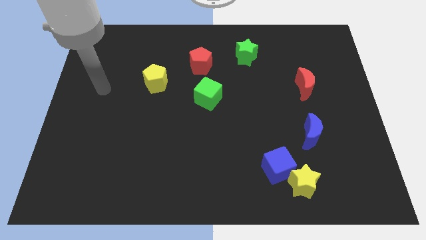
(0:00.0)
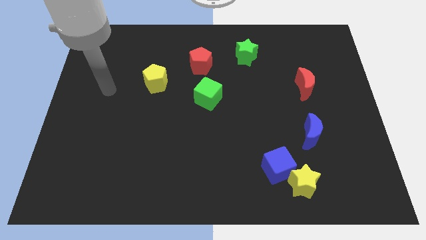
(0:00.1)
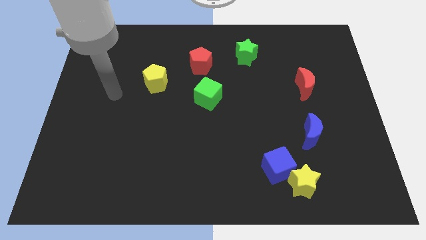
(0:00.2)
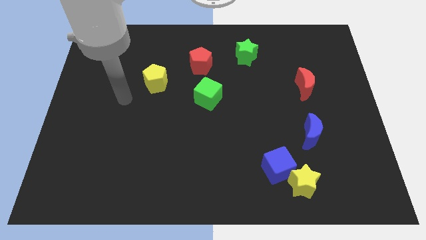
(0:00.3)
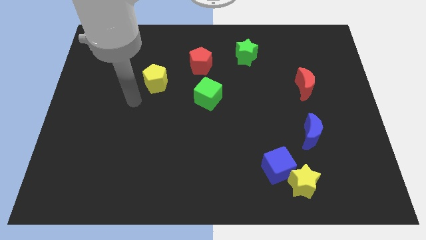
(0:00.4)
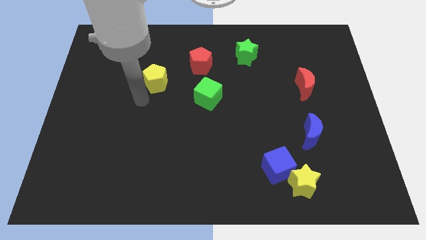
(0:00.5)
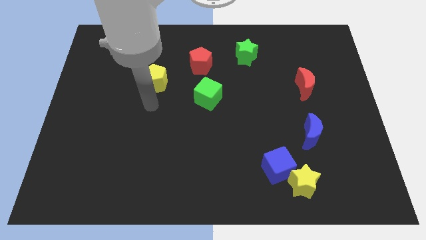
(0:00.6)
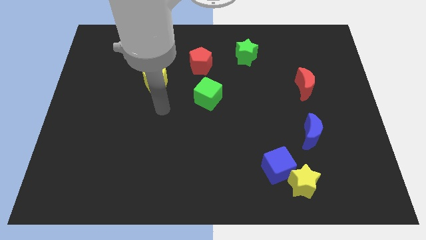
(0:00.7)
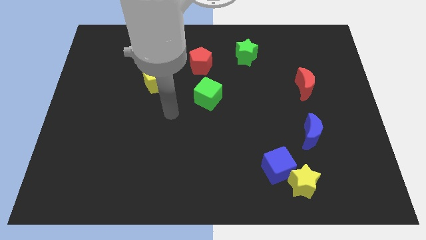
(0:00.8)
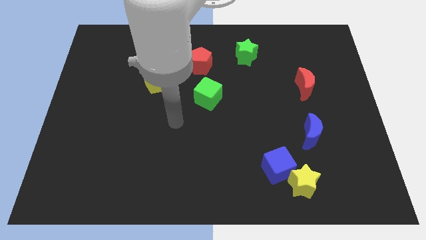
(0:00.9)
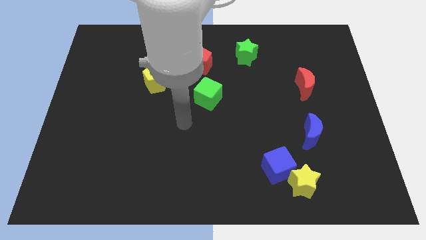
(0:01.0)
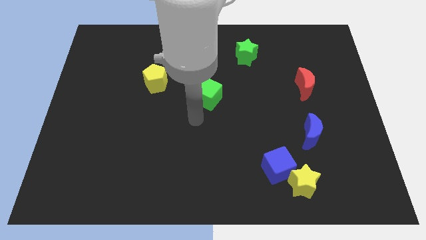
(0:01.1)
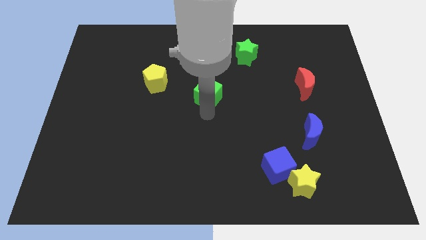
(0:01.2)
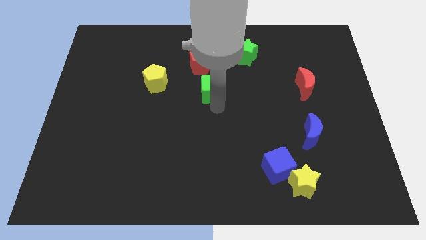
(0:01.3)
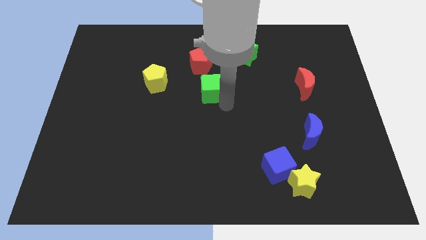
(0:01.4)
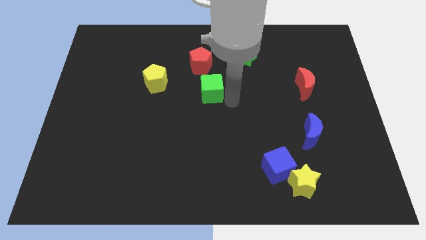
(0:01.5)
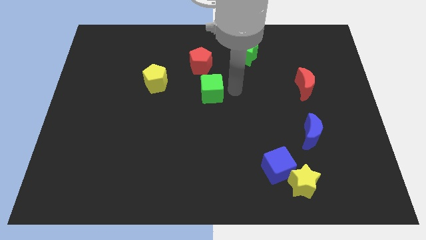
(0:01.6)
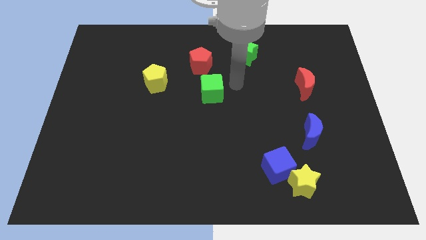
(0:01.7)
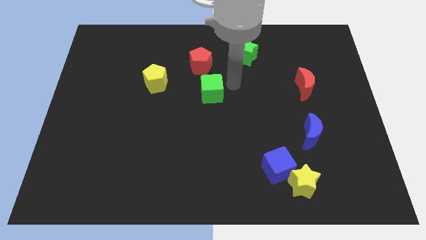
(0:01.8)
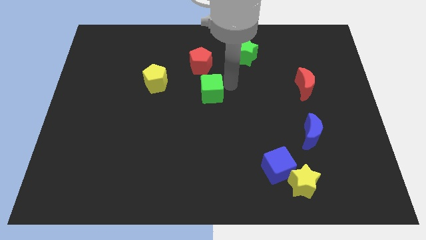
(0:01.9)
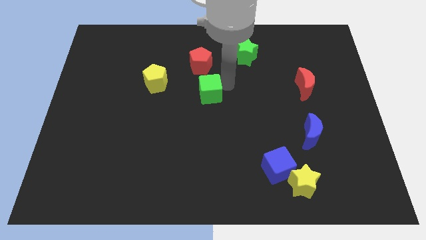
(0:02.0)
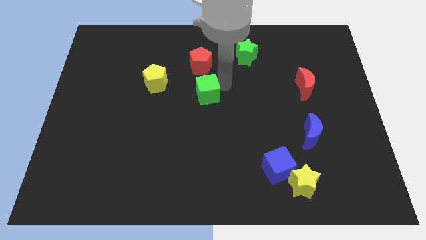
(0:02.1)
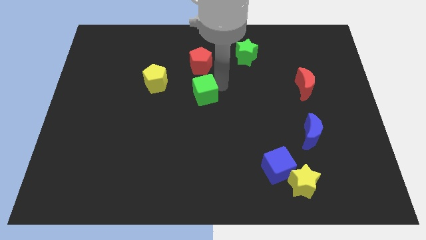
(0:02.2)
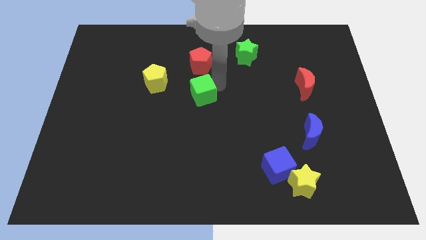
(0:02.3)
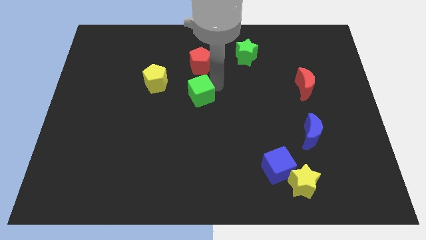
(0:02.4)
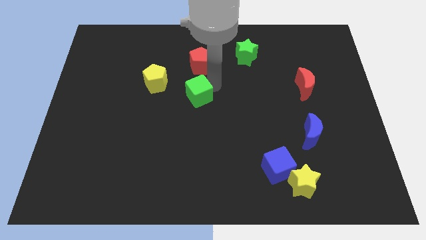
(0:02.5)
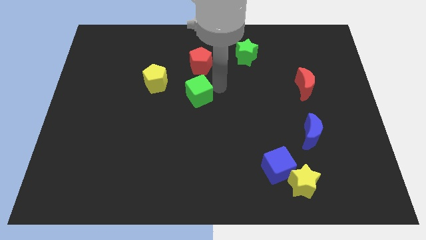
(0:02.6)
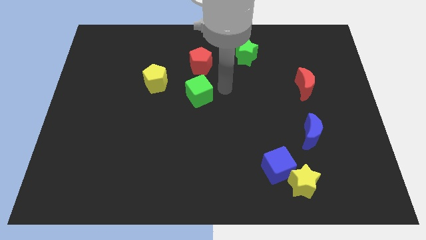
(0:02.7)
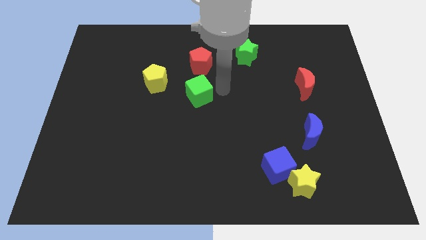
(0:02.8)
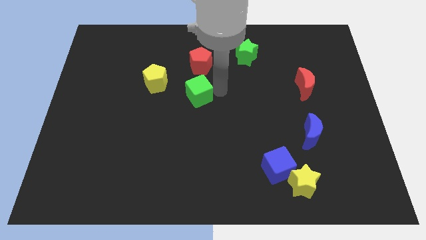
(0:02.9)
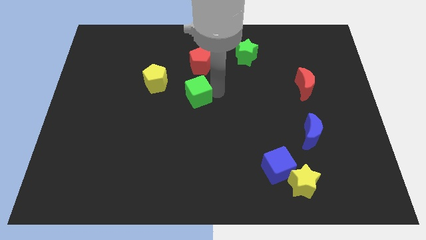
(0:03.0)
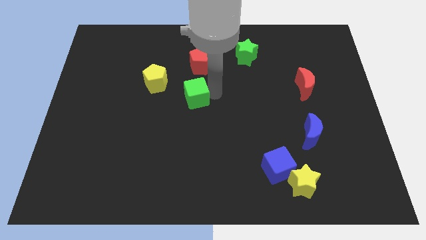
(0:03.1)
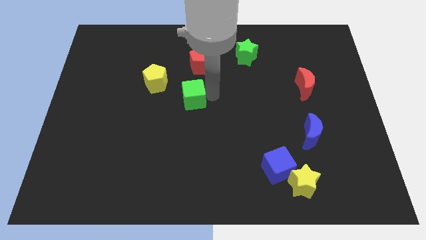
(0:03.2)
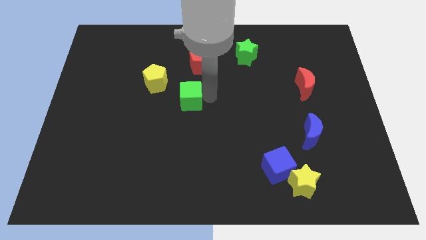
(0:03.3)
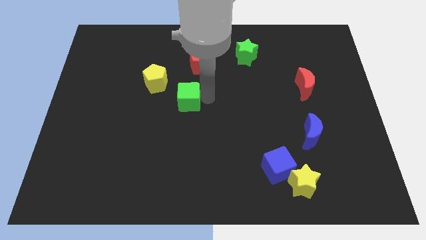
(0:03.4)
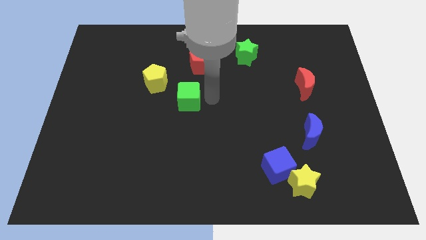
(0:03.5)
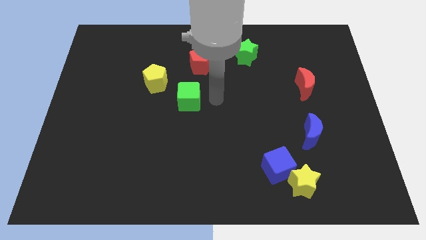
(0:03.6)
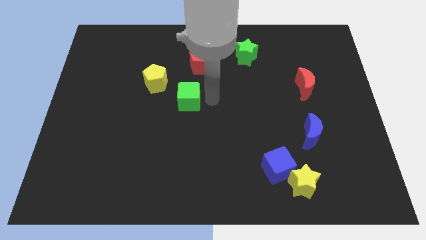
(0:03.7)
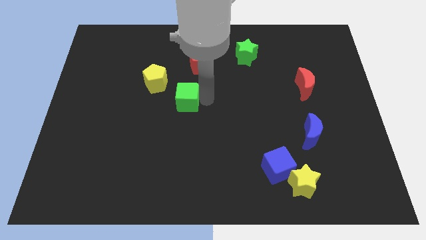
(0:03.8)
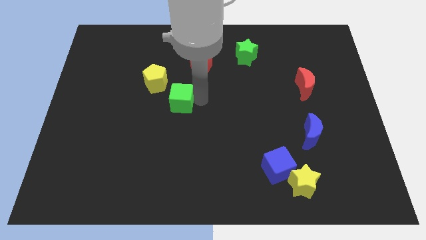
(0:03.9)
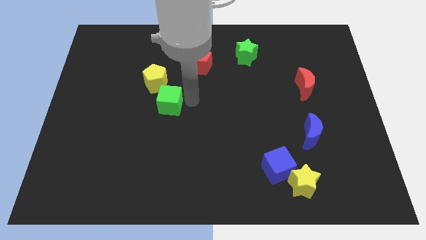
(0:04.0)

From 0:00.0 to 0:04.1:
slightly slide the green cube to the left

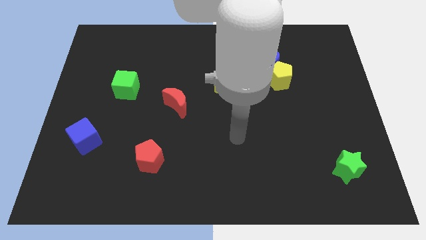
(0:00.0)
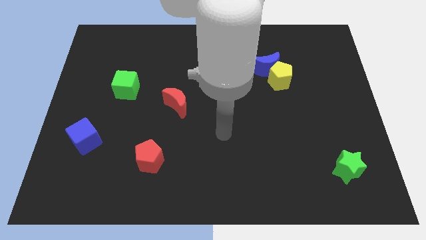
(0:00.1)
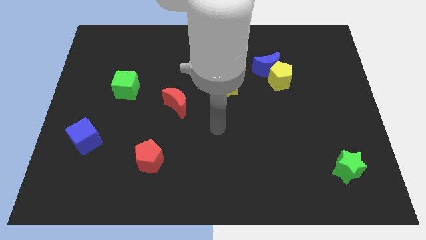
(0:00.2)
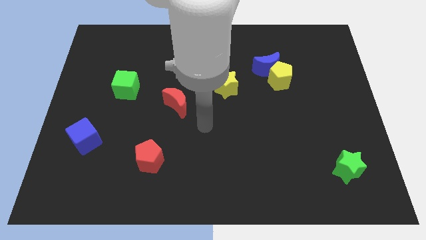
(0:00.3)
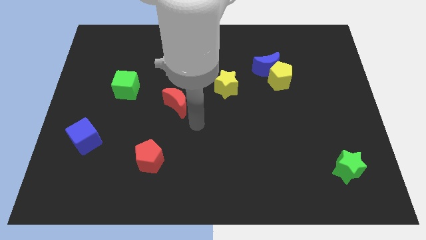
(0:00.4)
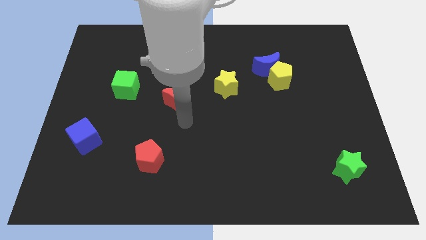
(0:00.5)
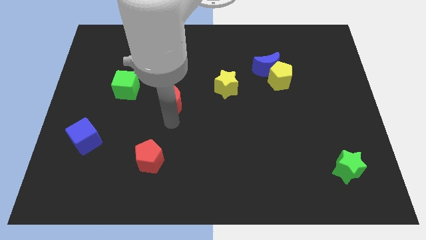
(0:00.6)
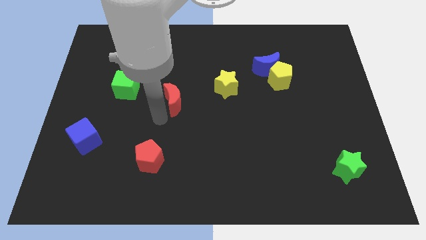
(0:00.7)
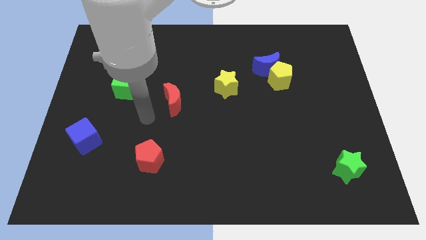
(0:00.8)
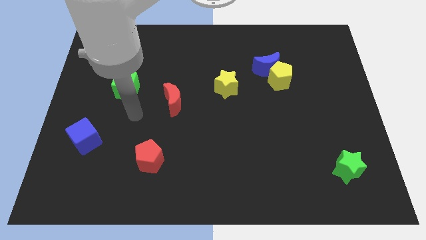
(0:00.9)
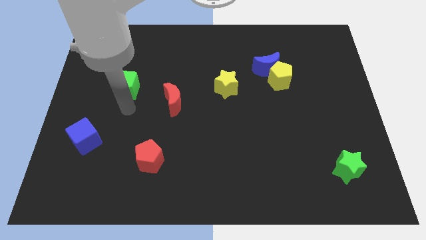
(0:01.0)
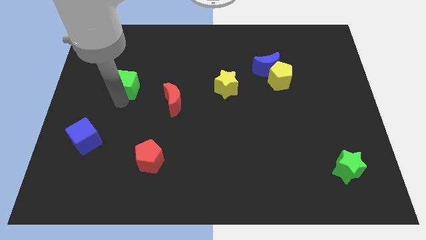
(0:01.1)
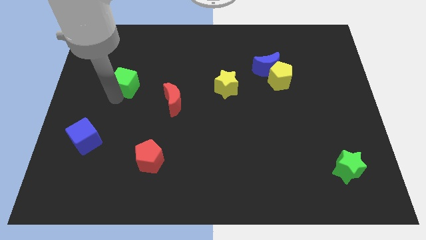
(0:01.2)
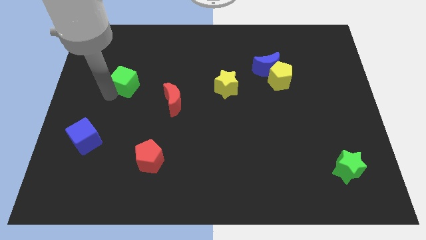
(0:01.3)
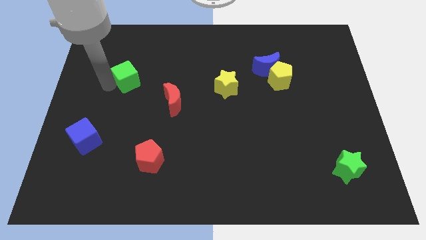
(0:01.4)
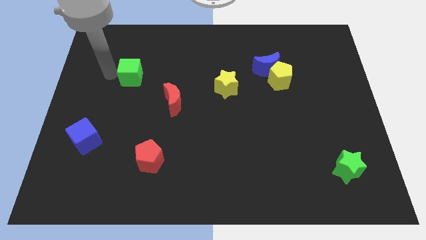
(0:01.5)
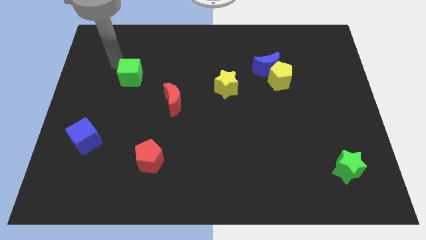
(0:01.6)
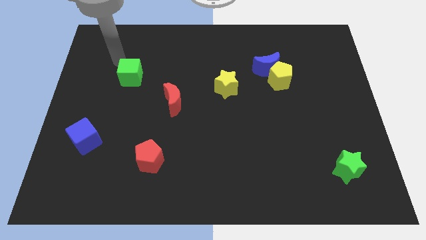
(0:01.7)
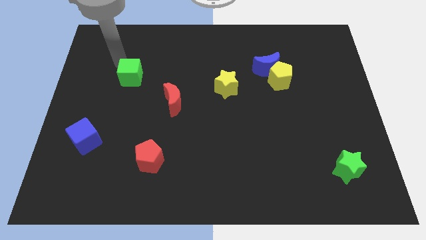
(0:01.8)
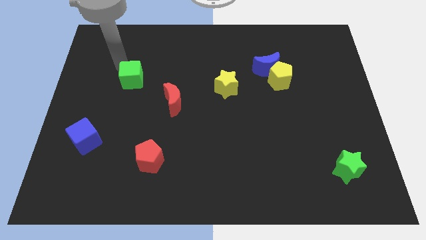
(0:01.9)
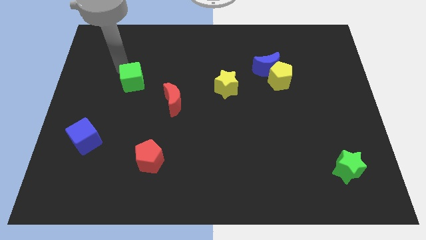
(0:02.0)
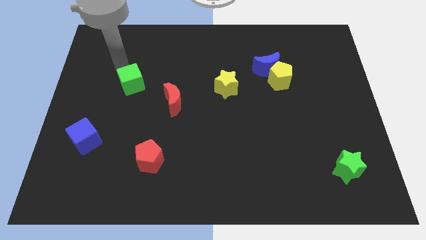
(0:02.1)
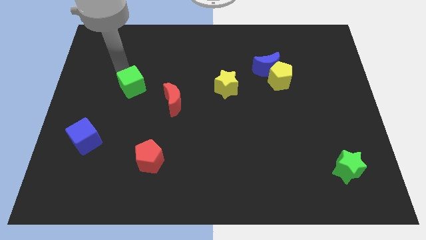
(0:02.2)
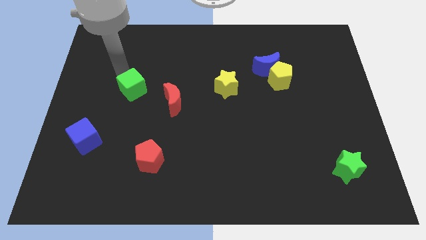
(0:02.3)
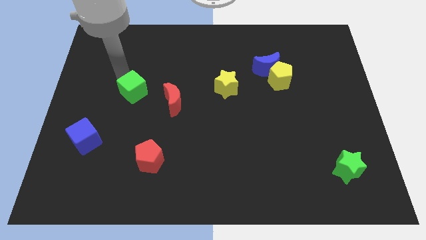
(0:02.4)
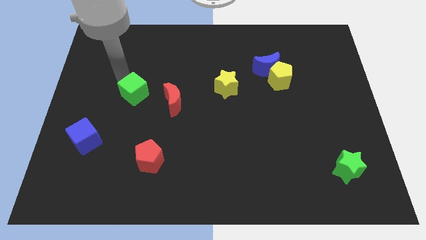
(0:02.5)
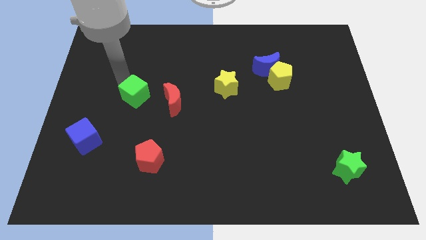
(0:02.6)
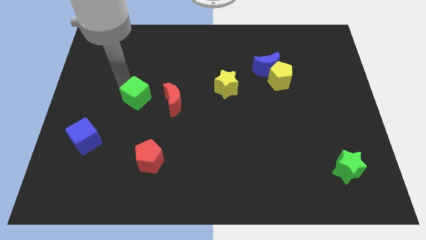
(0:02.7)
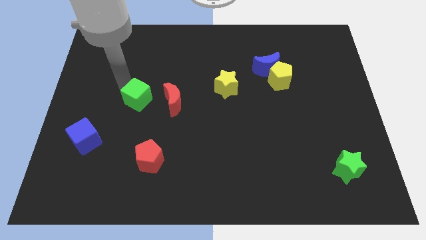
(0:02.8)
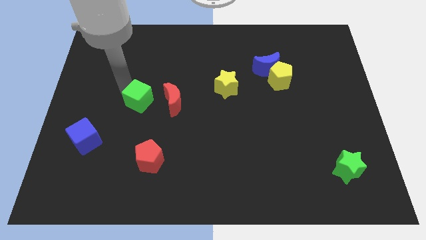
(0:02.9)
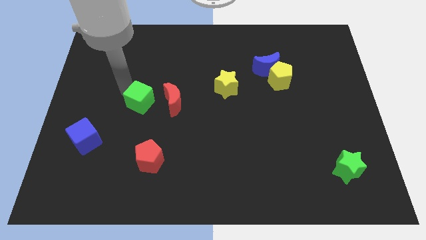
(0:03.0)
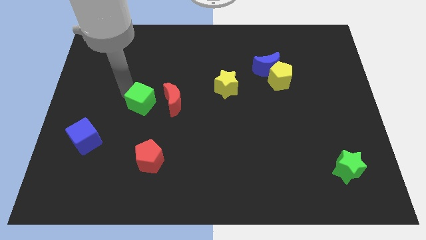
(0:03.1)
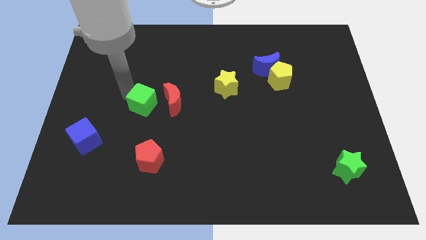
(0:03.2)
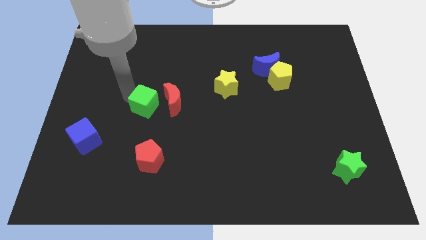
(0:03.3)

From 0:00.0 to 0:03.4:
slide the green cube a bit diagonally down and to the right

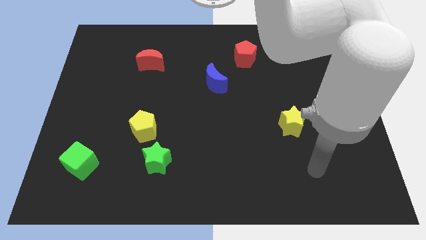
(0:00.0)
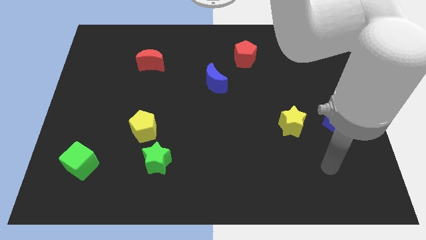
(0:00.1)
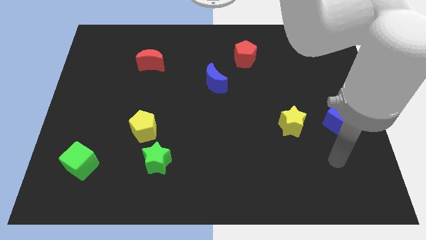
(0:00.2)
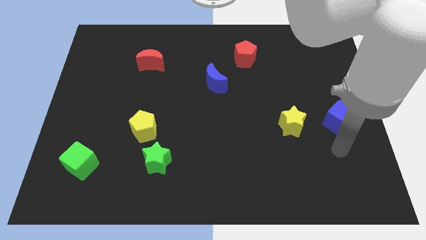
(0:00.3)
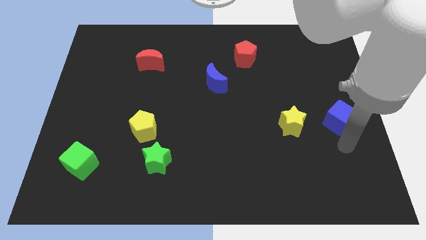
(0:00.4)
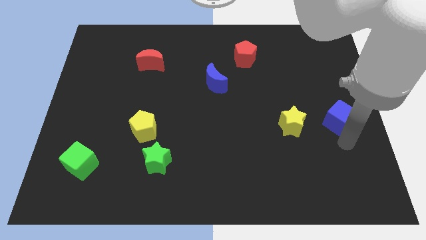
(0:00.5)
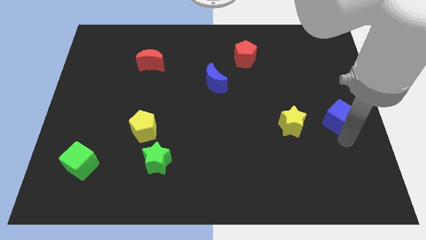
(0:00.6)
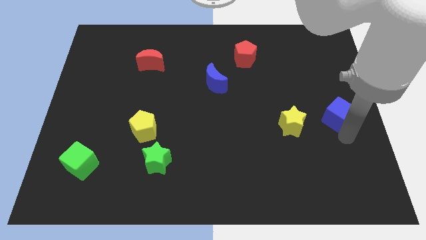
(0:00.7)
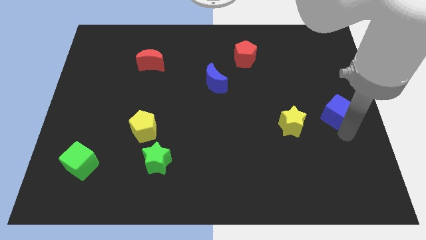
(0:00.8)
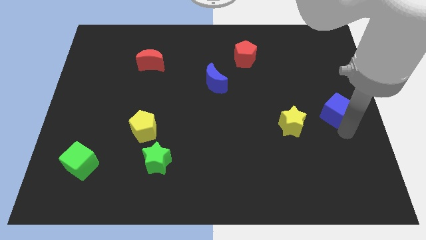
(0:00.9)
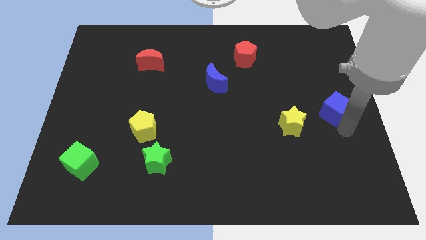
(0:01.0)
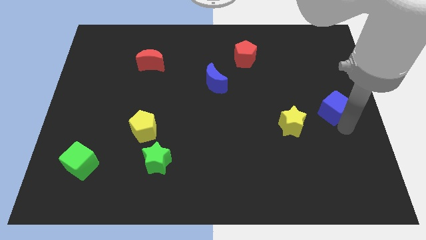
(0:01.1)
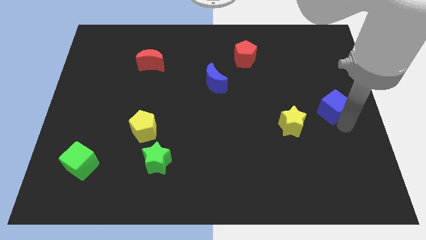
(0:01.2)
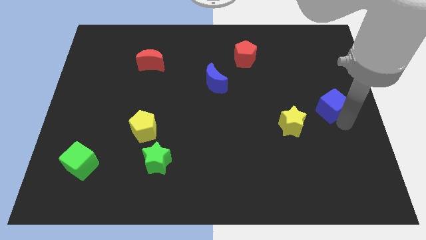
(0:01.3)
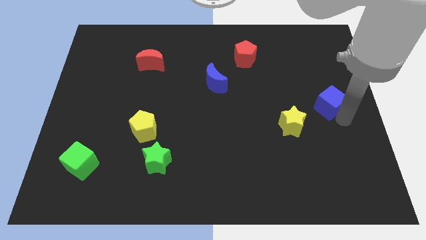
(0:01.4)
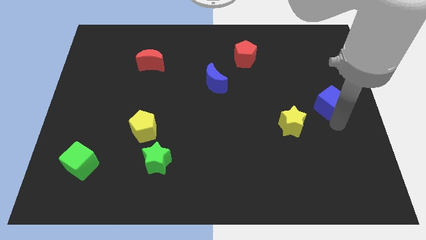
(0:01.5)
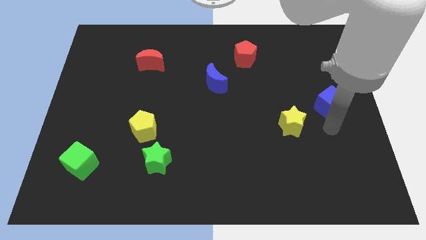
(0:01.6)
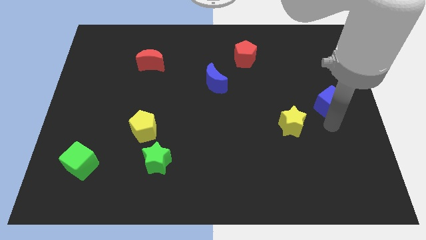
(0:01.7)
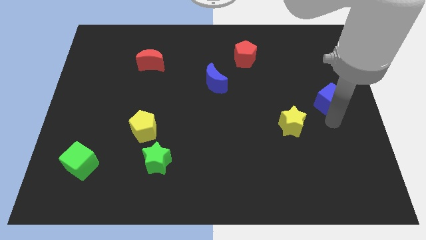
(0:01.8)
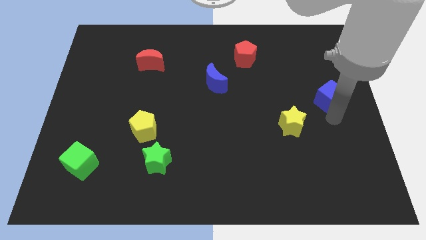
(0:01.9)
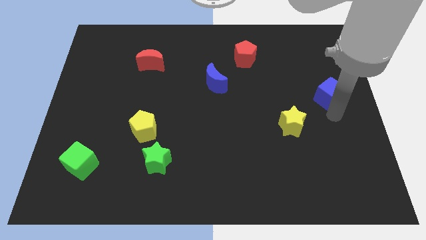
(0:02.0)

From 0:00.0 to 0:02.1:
move the blue cube a little bit up
